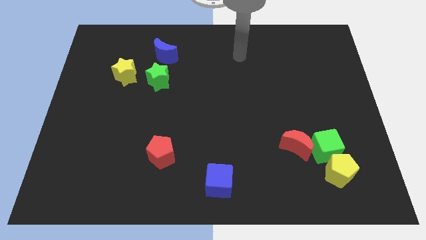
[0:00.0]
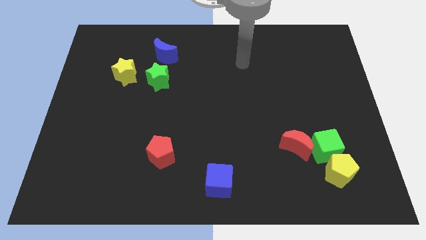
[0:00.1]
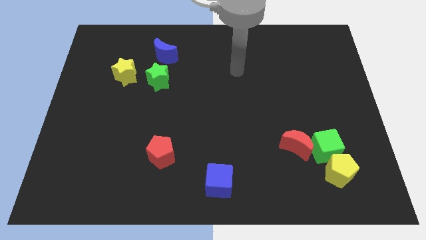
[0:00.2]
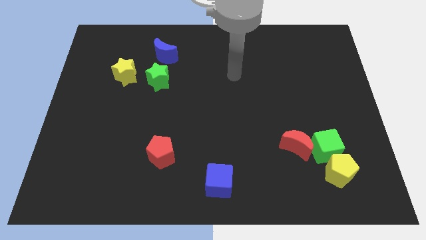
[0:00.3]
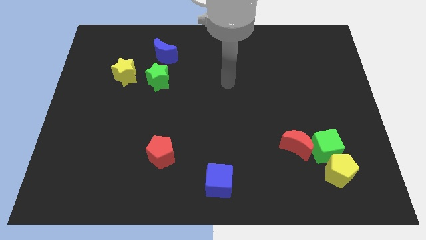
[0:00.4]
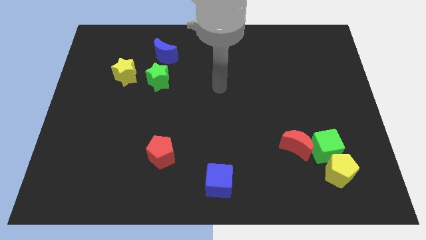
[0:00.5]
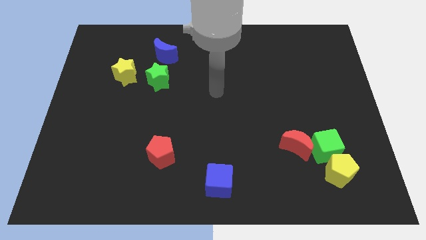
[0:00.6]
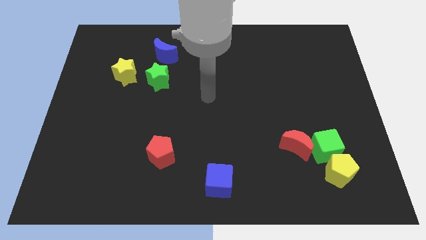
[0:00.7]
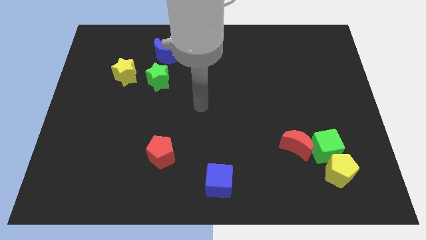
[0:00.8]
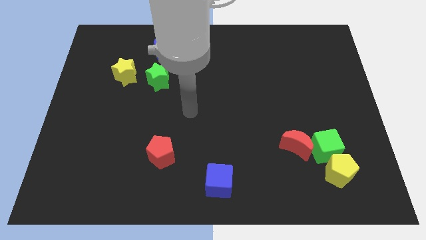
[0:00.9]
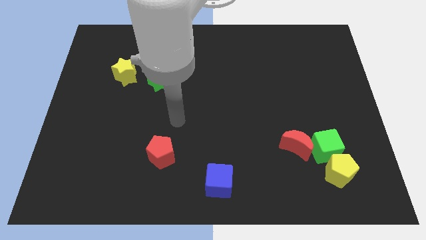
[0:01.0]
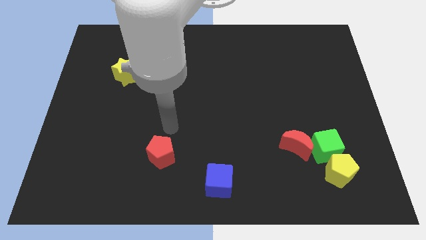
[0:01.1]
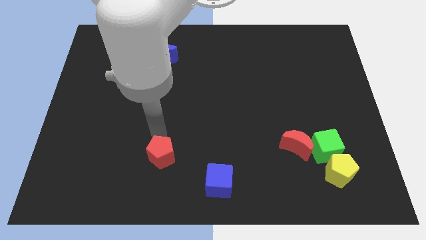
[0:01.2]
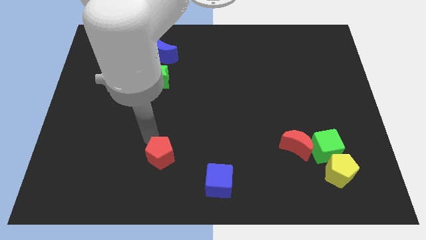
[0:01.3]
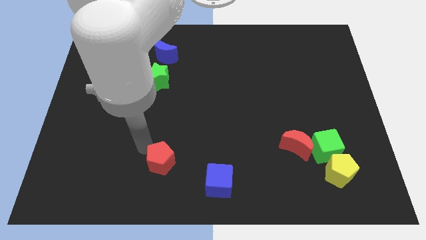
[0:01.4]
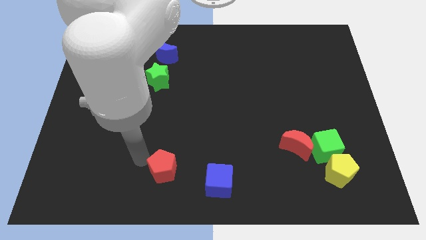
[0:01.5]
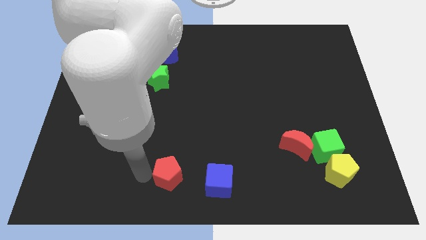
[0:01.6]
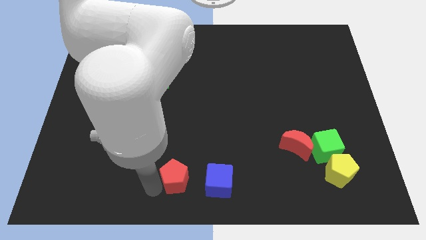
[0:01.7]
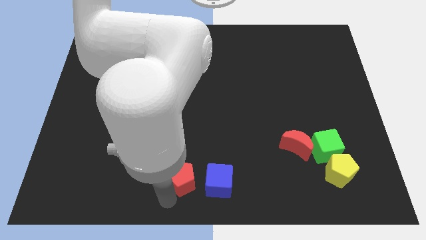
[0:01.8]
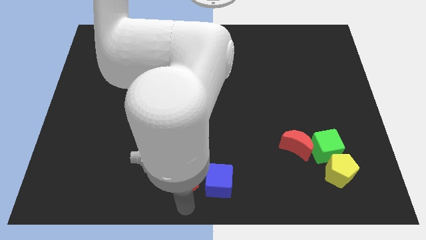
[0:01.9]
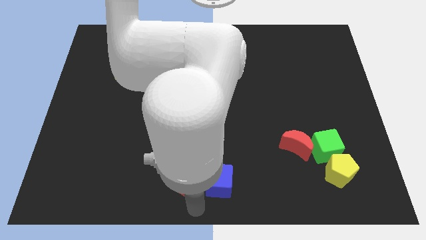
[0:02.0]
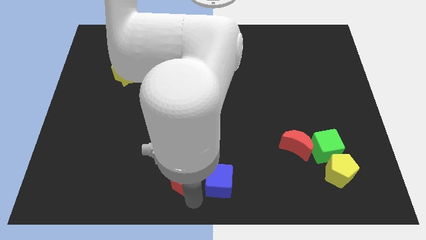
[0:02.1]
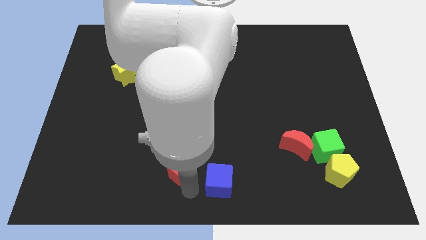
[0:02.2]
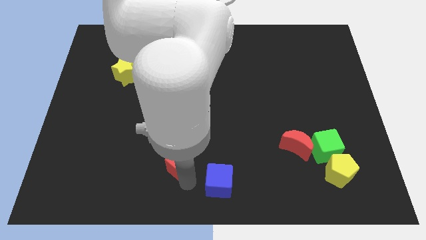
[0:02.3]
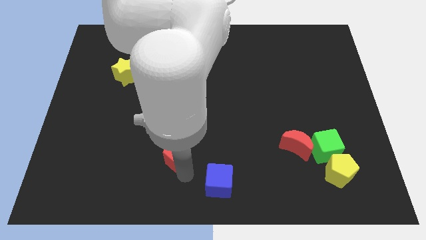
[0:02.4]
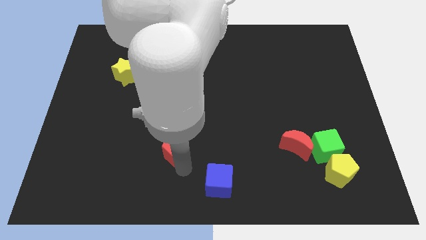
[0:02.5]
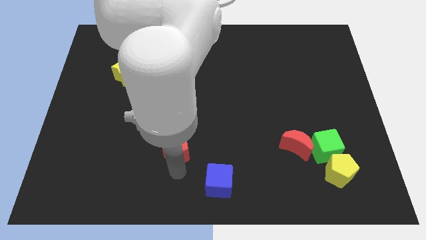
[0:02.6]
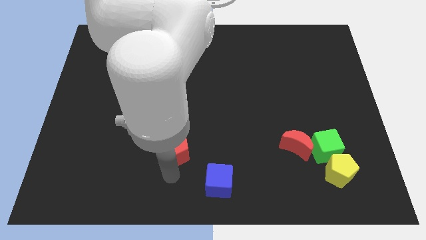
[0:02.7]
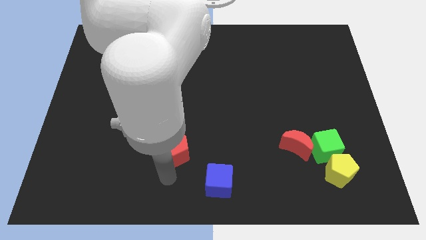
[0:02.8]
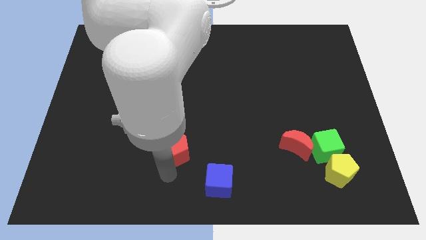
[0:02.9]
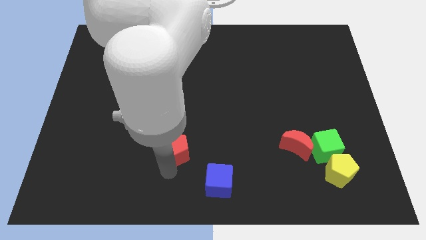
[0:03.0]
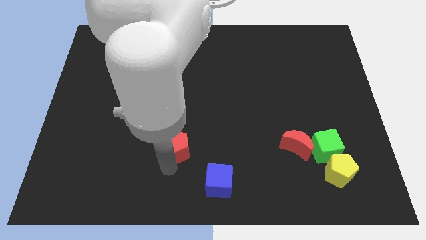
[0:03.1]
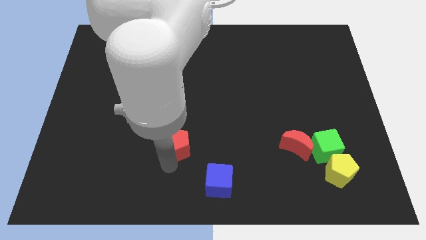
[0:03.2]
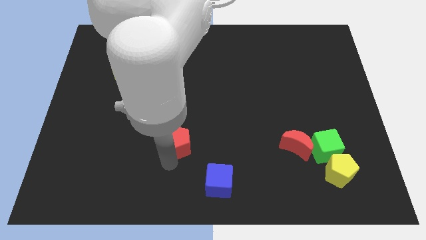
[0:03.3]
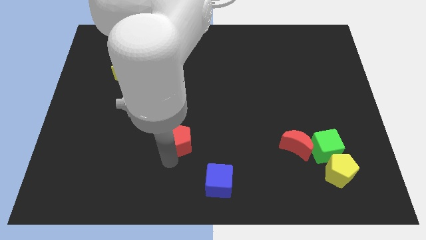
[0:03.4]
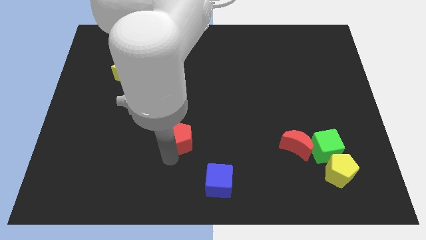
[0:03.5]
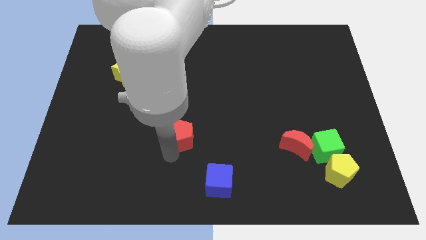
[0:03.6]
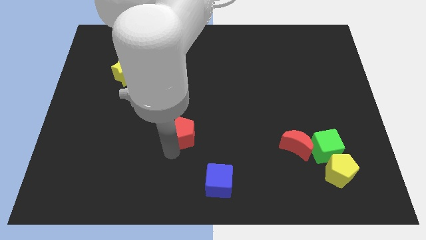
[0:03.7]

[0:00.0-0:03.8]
slightly push the red pentagon upwards and then right

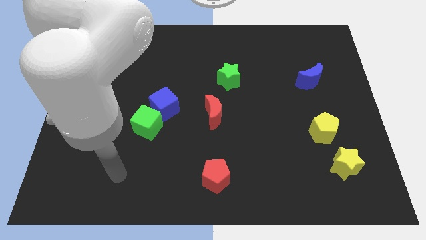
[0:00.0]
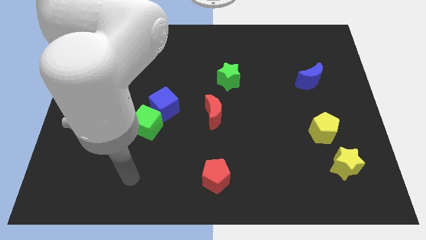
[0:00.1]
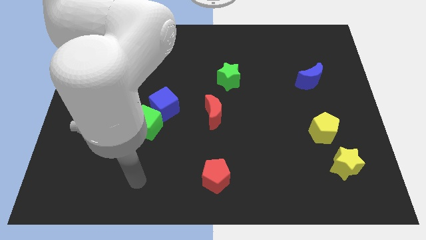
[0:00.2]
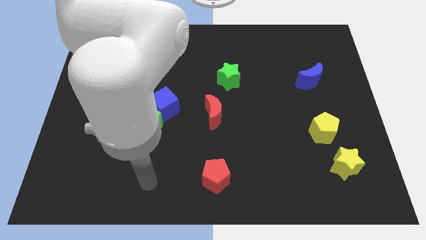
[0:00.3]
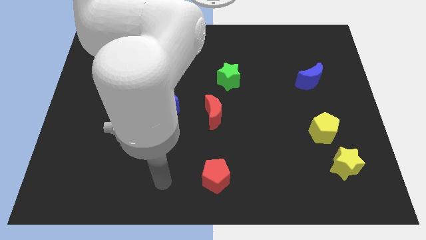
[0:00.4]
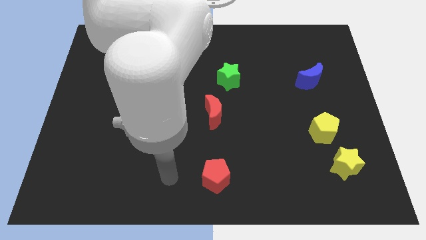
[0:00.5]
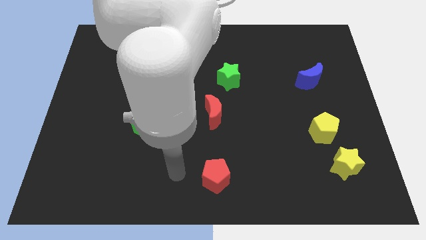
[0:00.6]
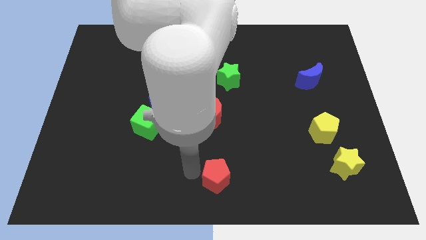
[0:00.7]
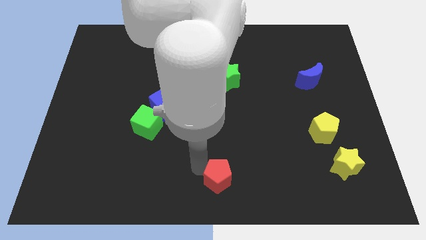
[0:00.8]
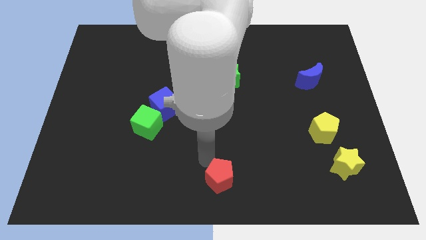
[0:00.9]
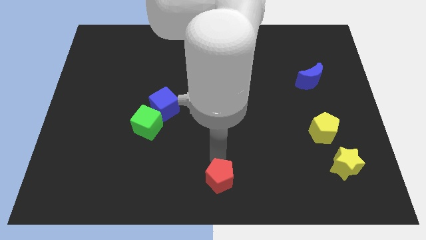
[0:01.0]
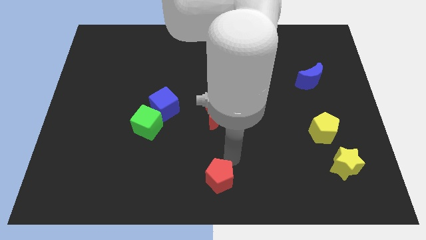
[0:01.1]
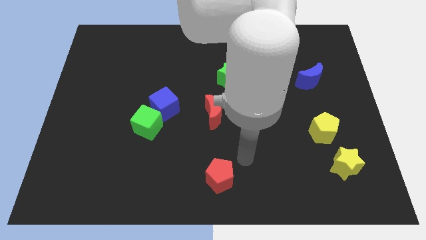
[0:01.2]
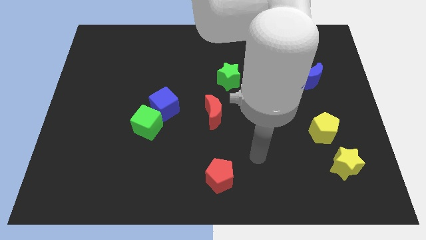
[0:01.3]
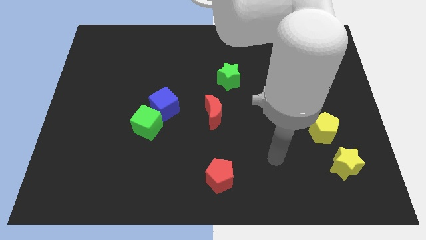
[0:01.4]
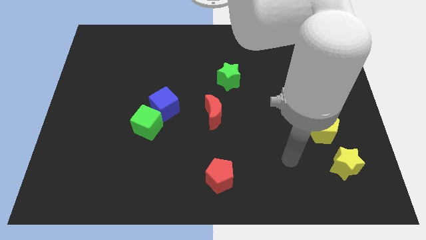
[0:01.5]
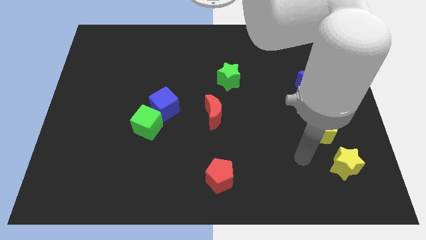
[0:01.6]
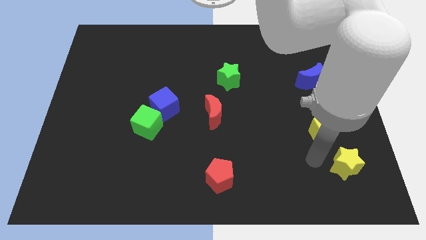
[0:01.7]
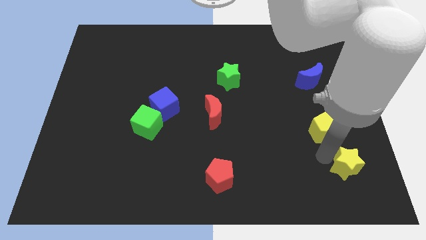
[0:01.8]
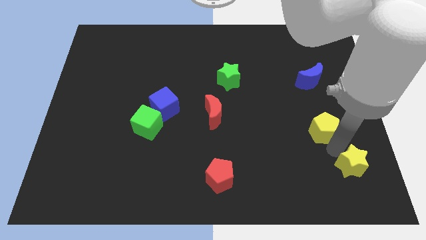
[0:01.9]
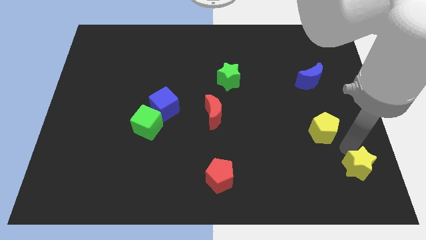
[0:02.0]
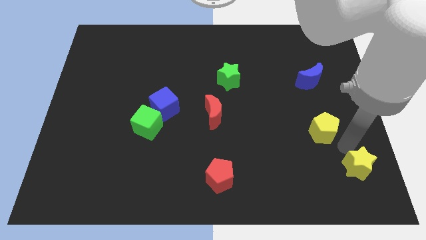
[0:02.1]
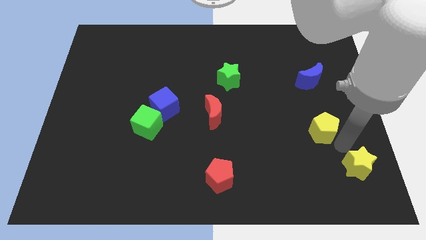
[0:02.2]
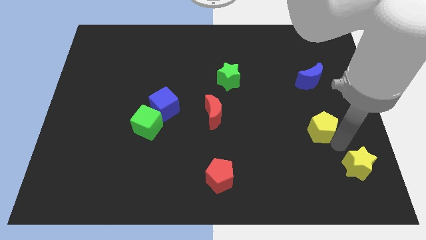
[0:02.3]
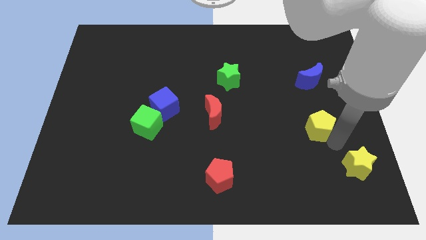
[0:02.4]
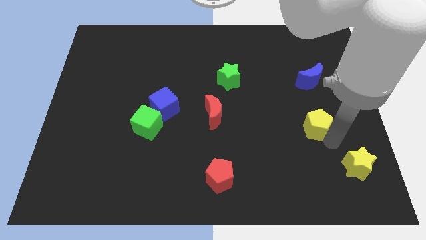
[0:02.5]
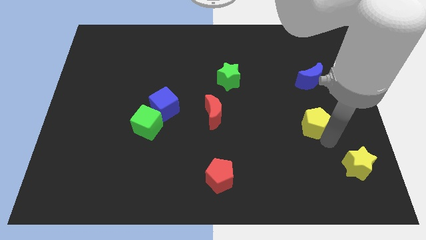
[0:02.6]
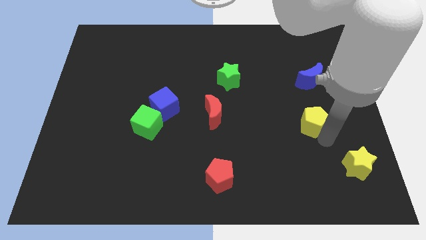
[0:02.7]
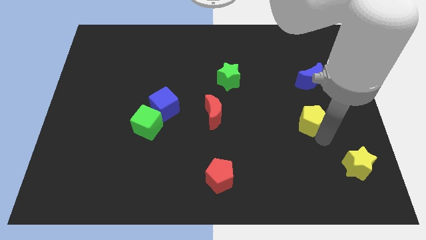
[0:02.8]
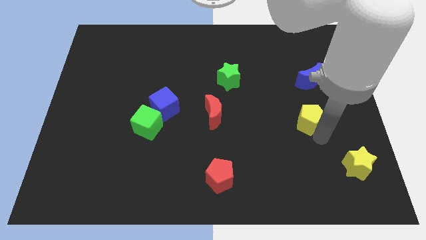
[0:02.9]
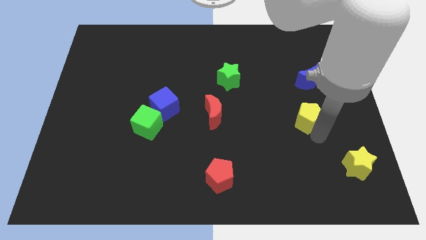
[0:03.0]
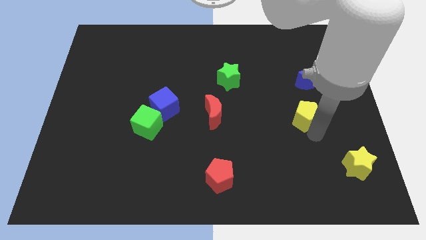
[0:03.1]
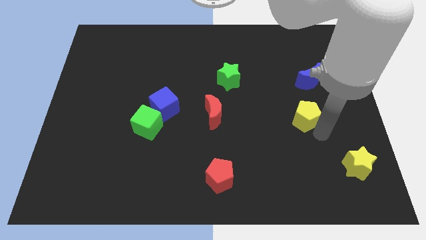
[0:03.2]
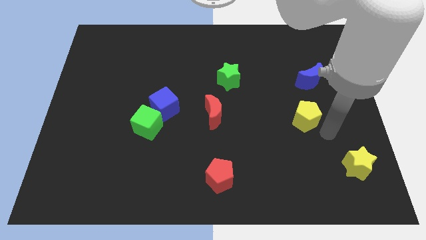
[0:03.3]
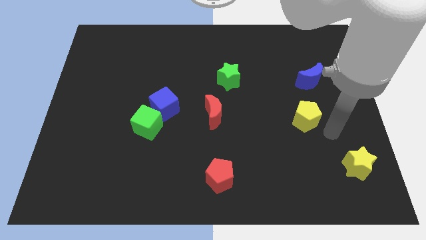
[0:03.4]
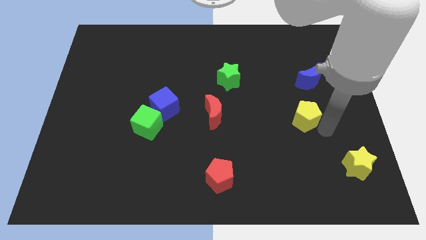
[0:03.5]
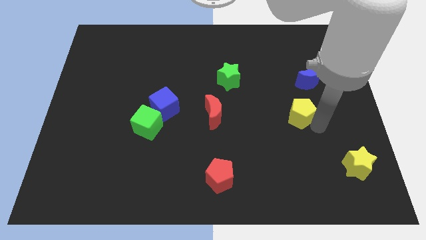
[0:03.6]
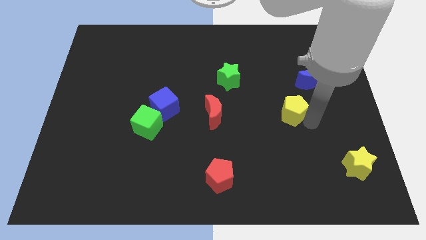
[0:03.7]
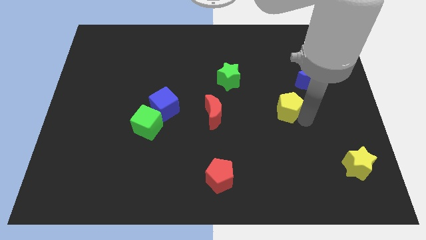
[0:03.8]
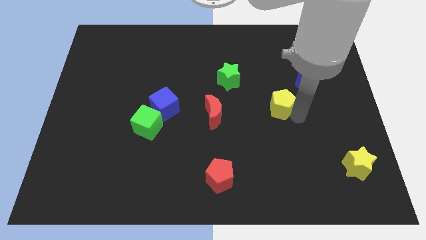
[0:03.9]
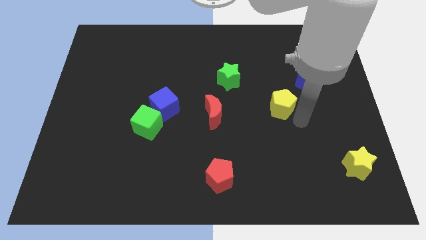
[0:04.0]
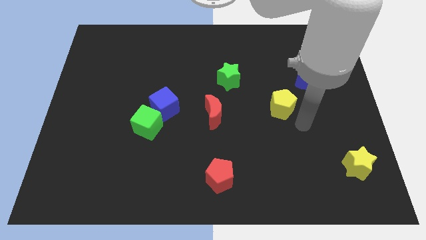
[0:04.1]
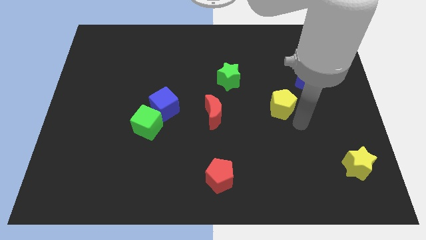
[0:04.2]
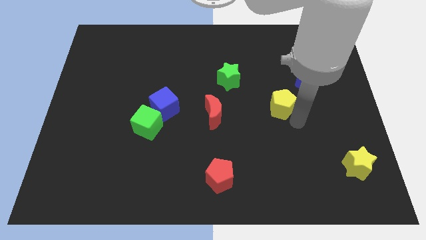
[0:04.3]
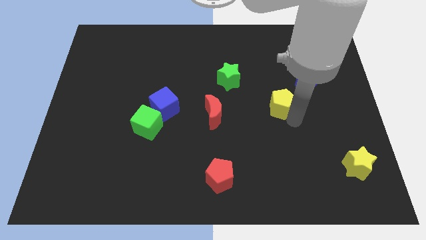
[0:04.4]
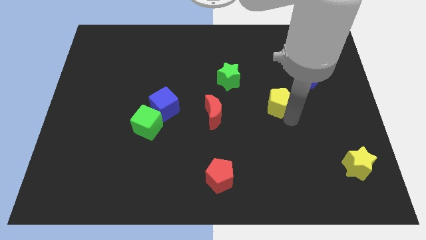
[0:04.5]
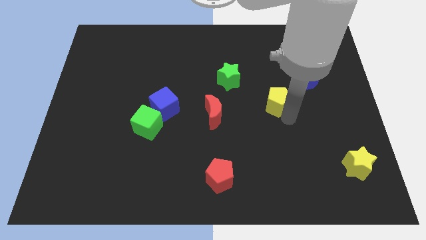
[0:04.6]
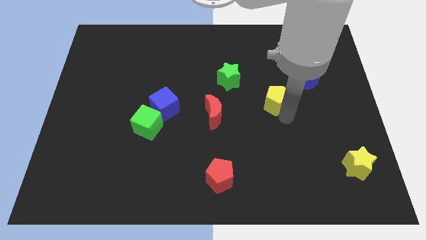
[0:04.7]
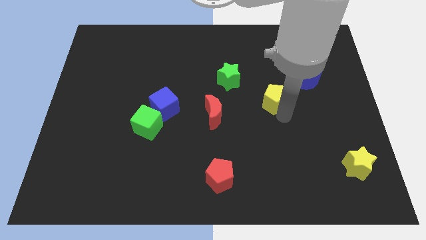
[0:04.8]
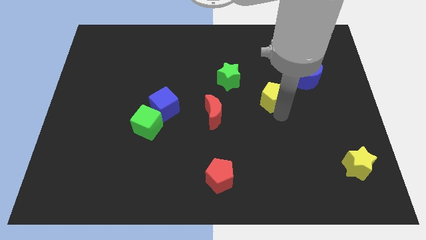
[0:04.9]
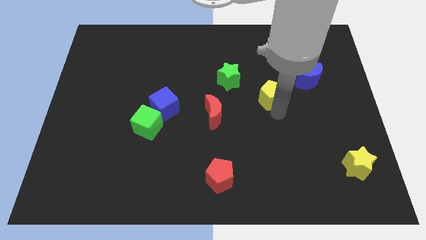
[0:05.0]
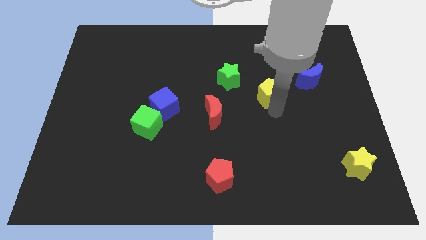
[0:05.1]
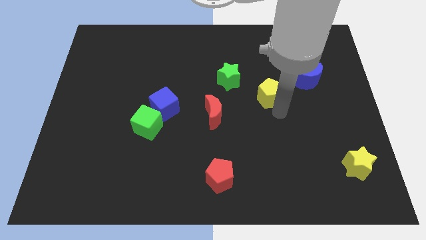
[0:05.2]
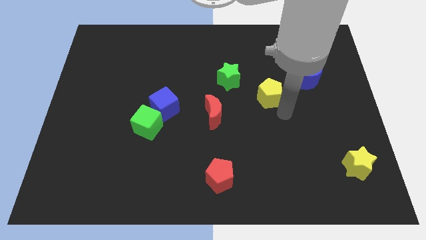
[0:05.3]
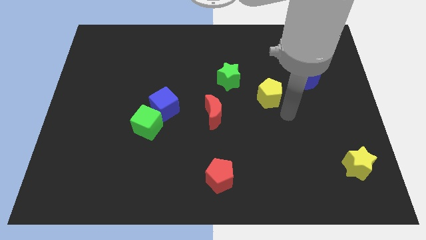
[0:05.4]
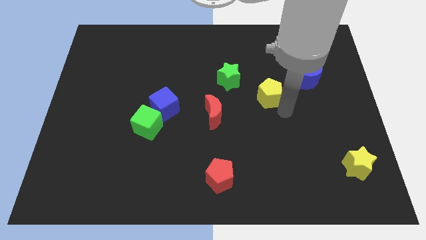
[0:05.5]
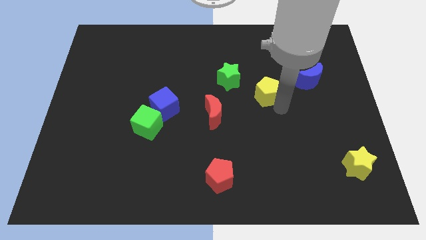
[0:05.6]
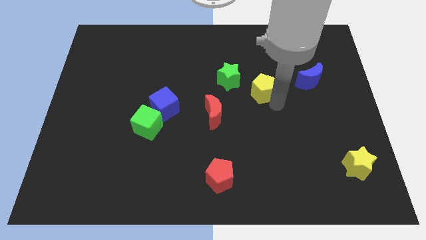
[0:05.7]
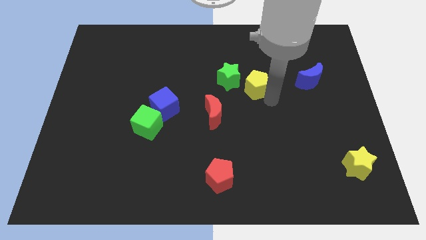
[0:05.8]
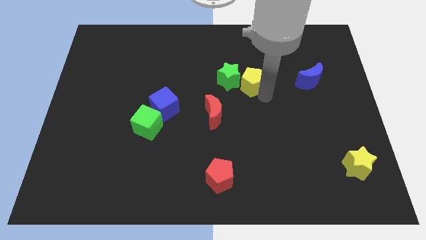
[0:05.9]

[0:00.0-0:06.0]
push the yellow pentagon diagonally up and to the left
